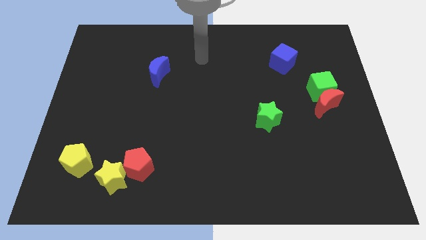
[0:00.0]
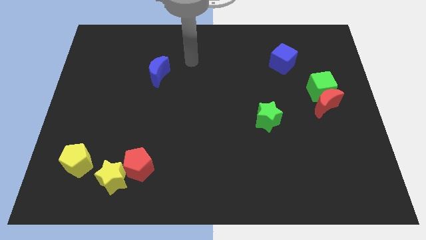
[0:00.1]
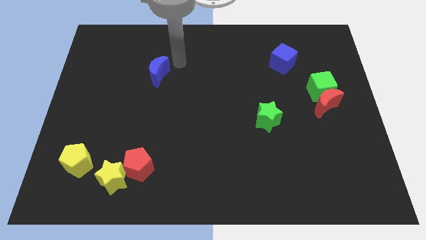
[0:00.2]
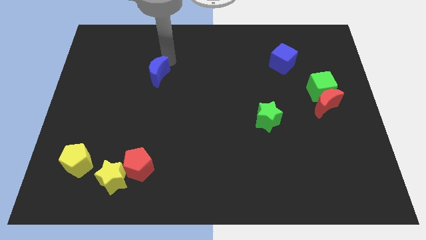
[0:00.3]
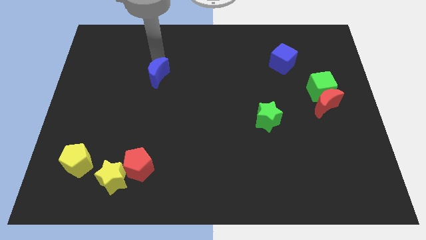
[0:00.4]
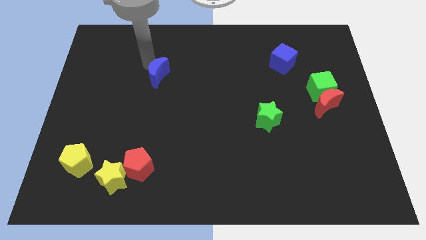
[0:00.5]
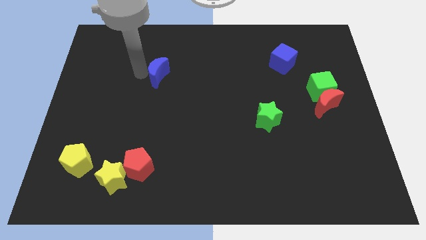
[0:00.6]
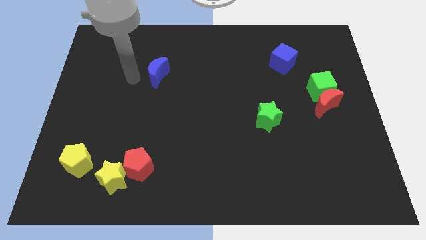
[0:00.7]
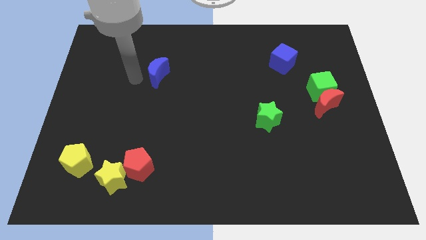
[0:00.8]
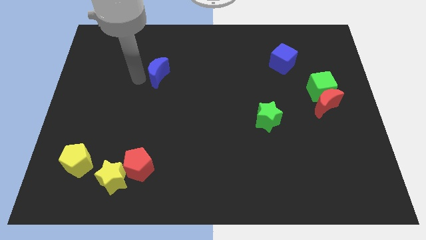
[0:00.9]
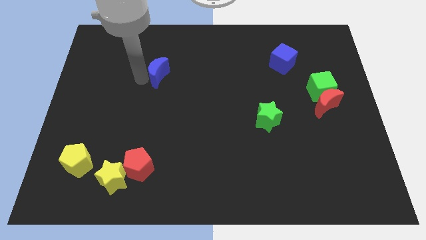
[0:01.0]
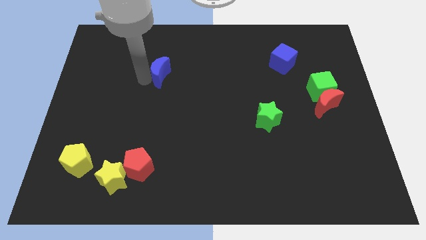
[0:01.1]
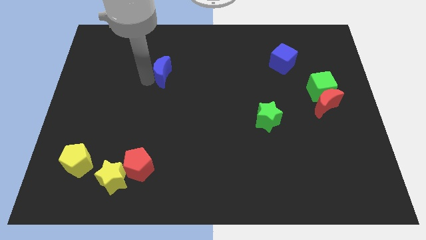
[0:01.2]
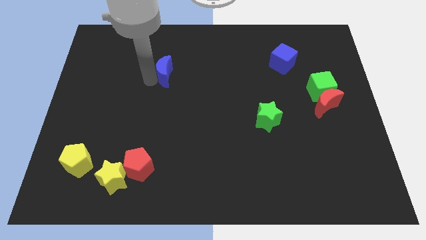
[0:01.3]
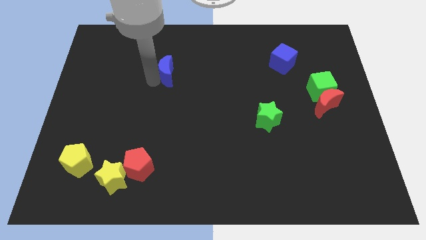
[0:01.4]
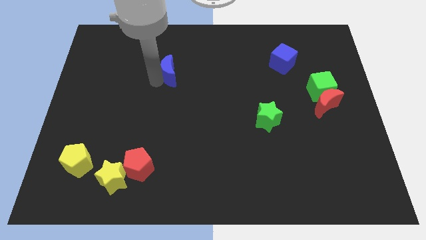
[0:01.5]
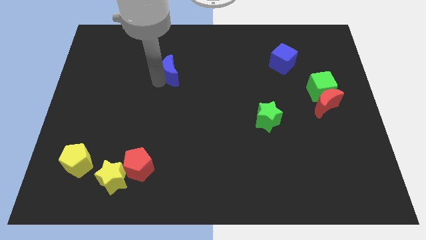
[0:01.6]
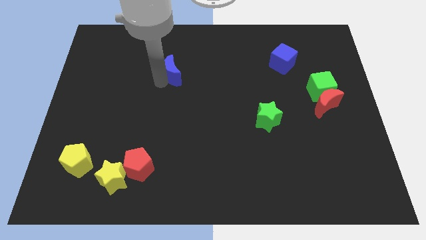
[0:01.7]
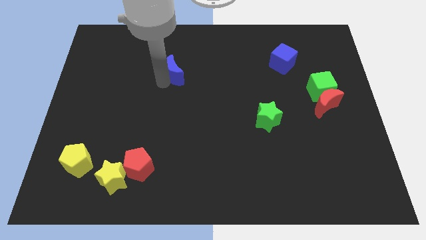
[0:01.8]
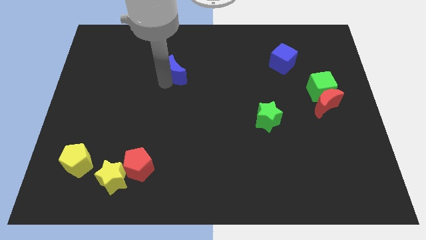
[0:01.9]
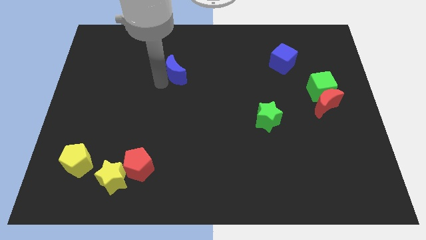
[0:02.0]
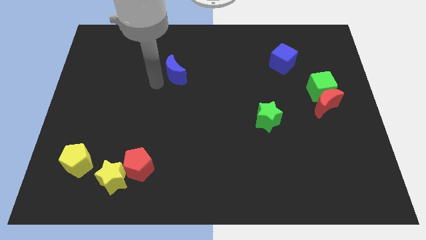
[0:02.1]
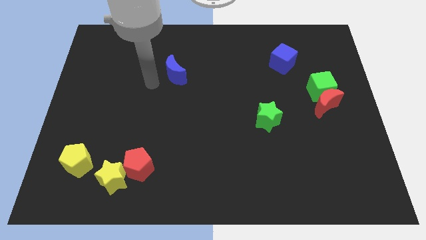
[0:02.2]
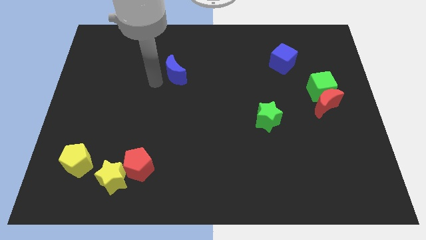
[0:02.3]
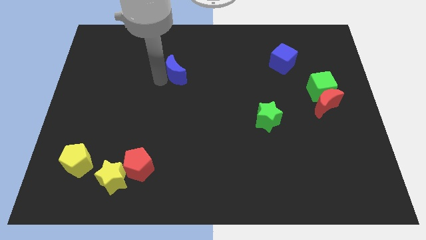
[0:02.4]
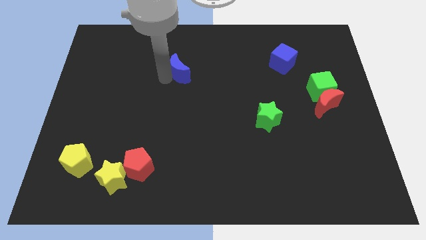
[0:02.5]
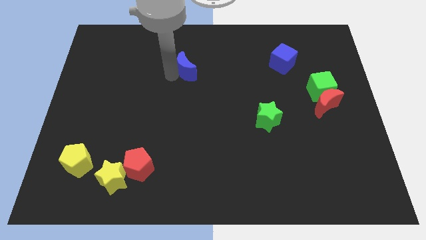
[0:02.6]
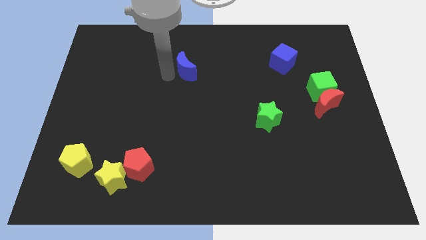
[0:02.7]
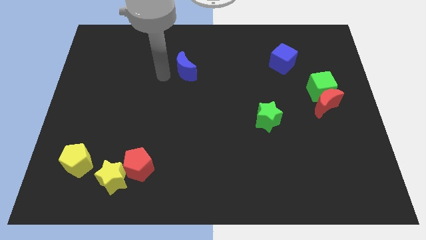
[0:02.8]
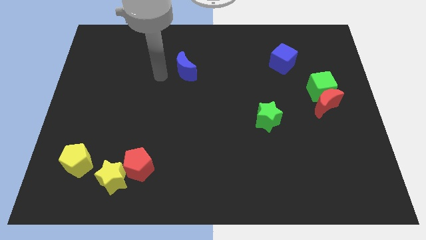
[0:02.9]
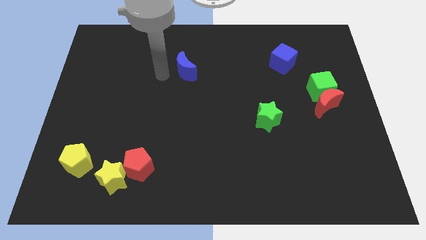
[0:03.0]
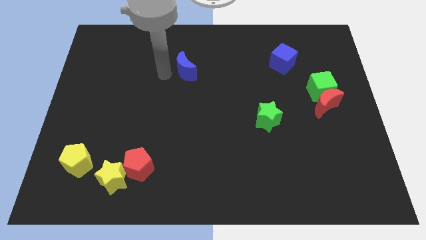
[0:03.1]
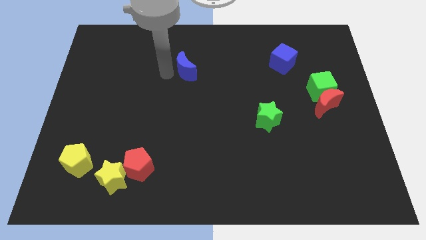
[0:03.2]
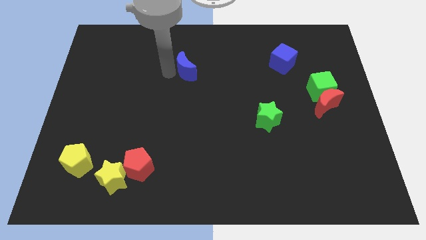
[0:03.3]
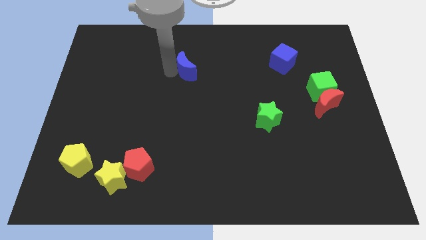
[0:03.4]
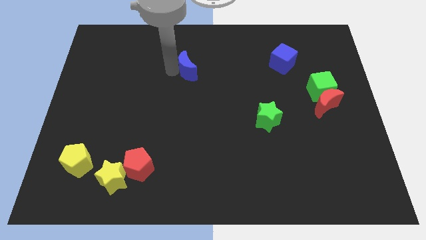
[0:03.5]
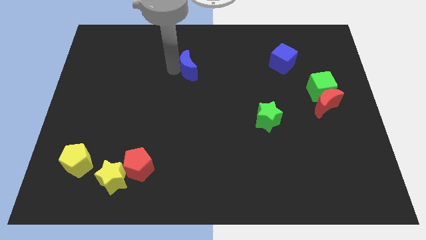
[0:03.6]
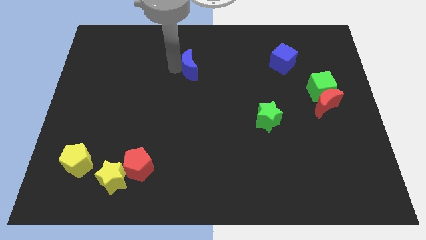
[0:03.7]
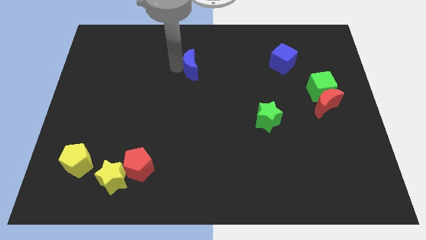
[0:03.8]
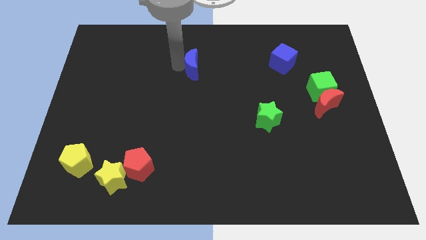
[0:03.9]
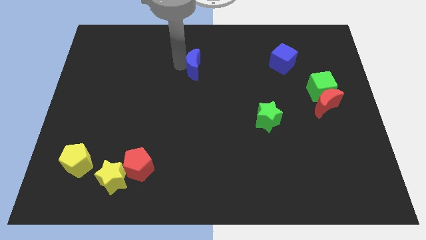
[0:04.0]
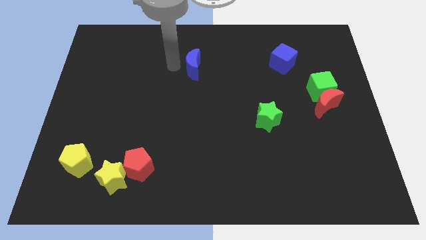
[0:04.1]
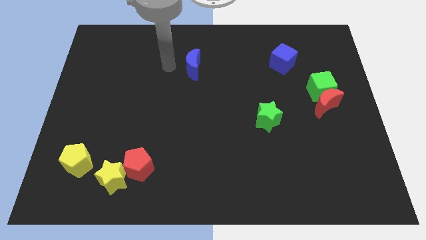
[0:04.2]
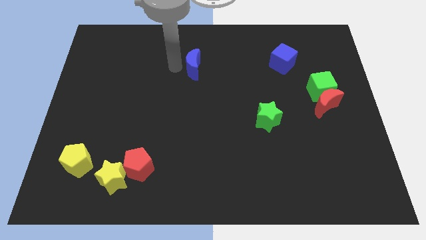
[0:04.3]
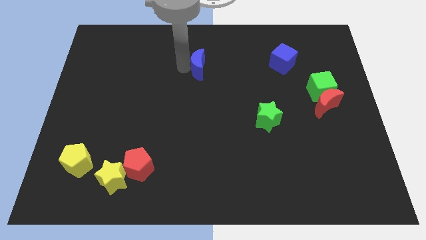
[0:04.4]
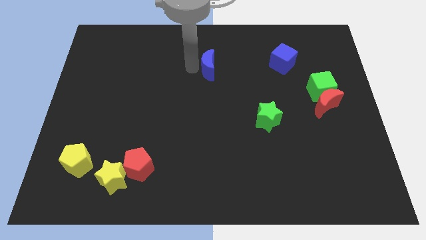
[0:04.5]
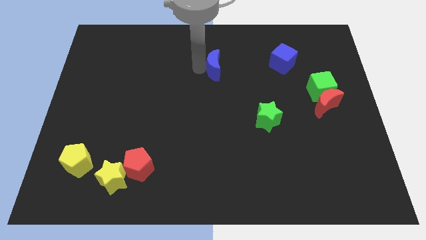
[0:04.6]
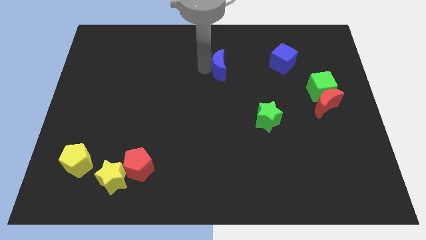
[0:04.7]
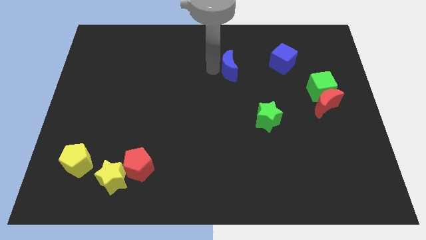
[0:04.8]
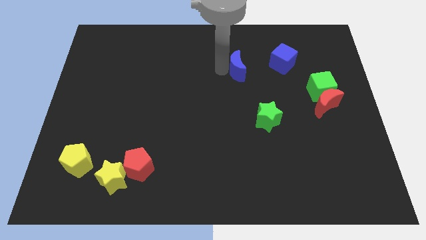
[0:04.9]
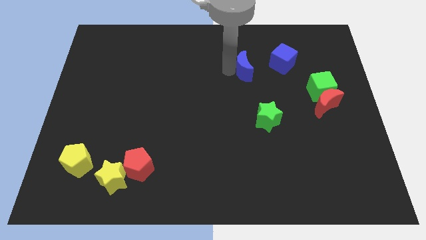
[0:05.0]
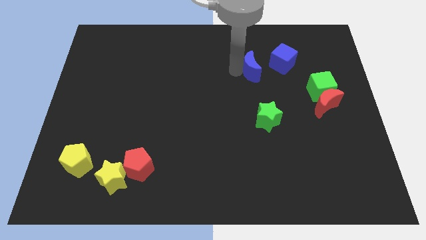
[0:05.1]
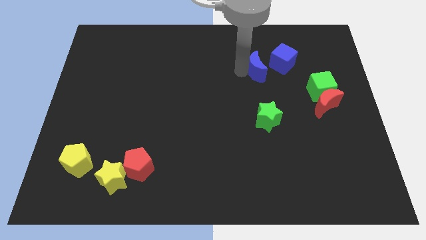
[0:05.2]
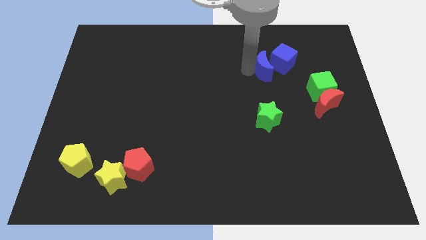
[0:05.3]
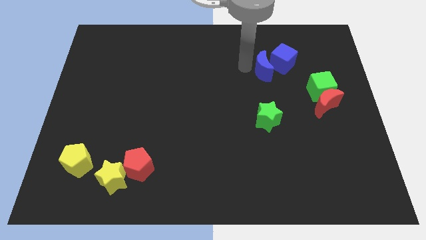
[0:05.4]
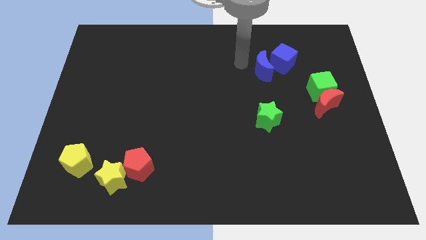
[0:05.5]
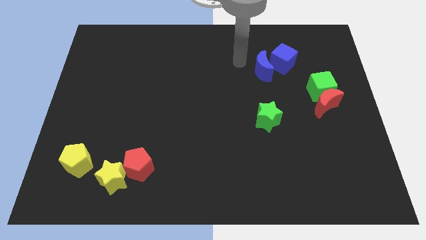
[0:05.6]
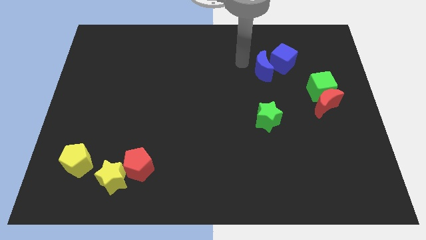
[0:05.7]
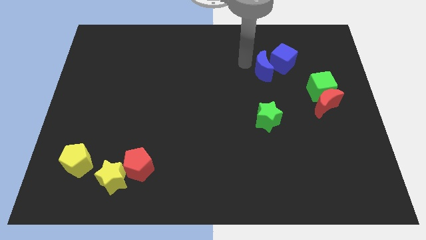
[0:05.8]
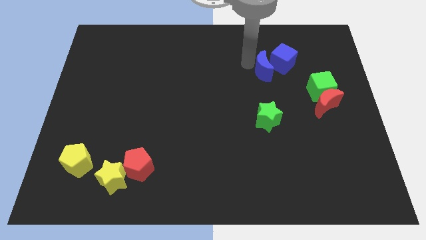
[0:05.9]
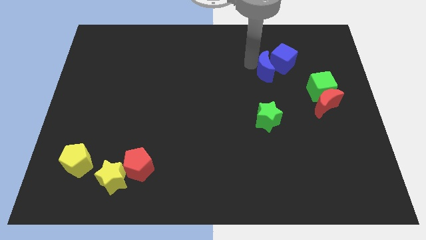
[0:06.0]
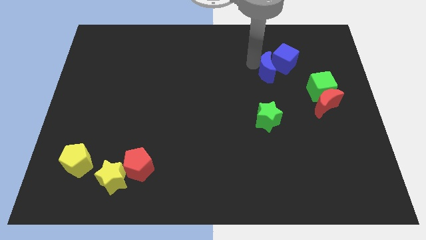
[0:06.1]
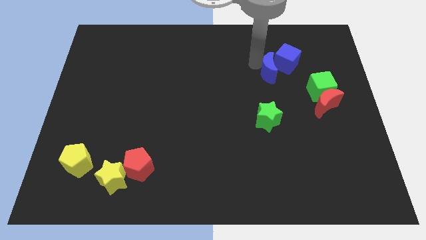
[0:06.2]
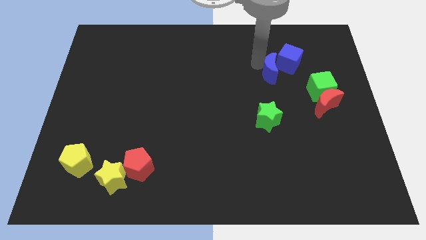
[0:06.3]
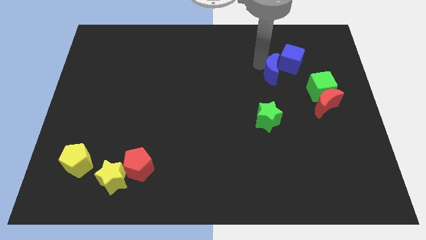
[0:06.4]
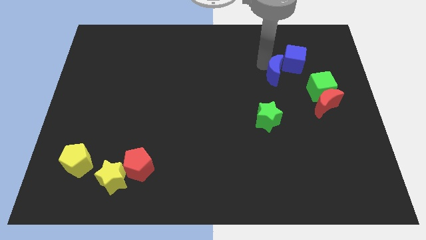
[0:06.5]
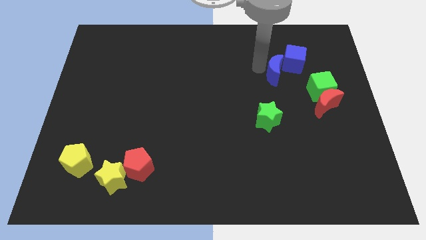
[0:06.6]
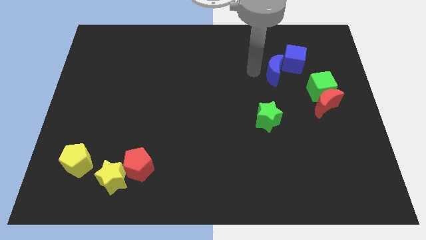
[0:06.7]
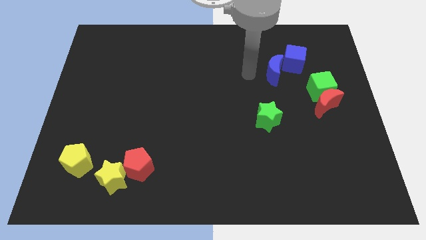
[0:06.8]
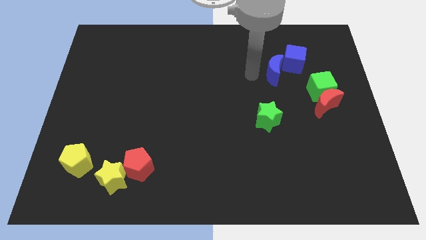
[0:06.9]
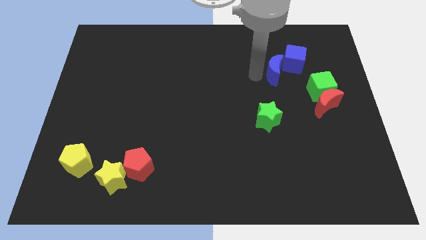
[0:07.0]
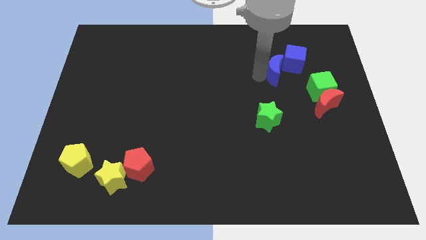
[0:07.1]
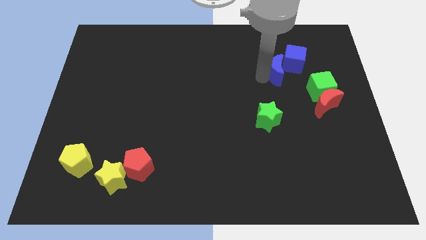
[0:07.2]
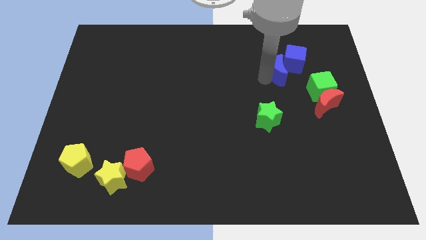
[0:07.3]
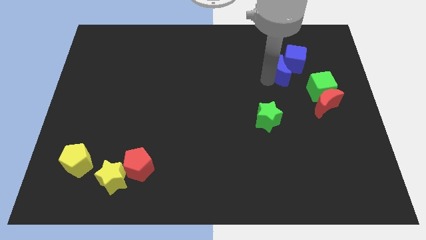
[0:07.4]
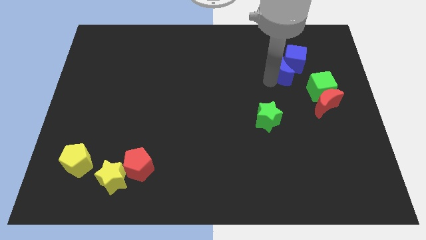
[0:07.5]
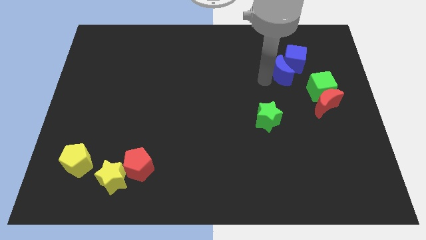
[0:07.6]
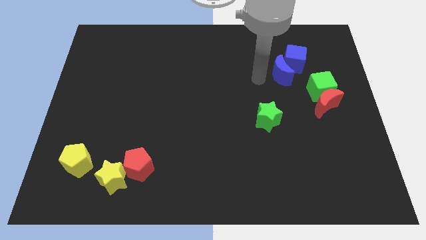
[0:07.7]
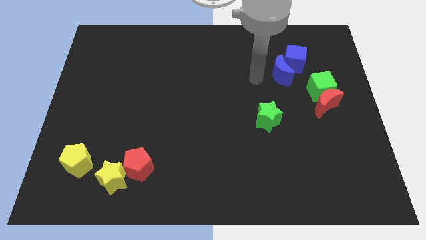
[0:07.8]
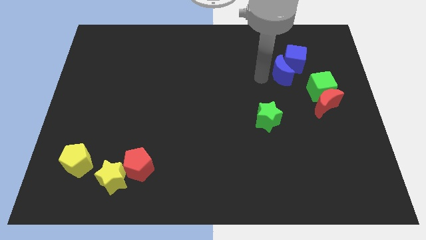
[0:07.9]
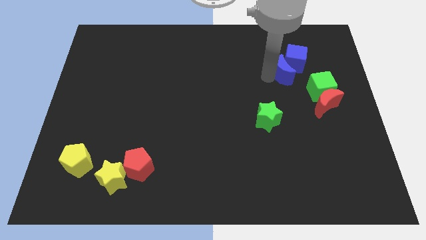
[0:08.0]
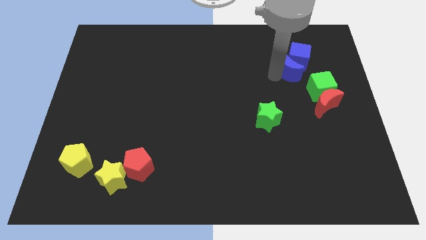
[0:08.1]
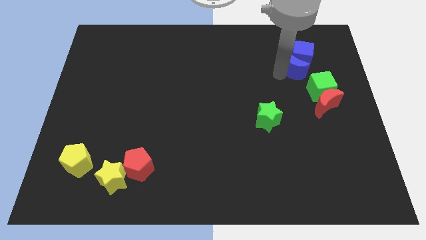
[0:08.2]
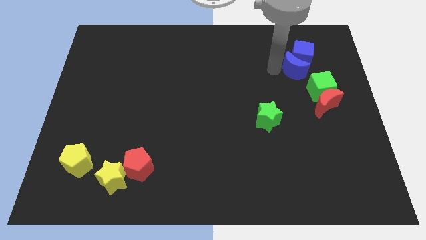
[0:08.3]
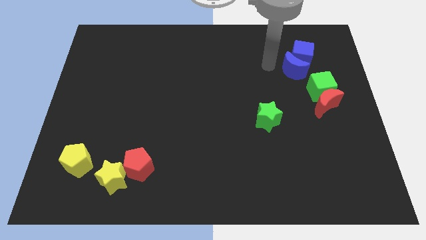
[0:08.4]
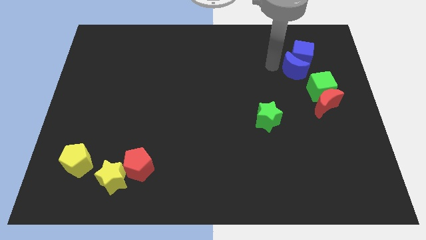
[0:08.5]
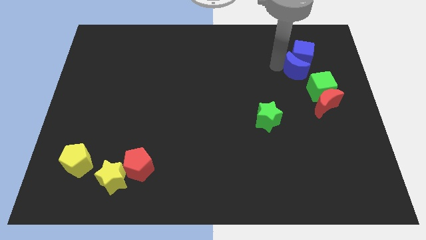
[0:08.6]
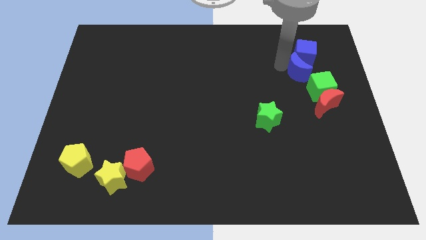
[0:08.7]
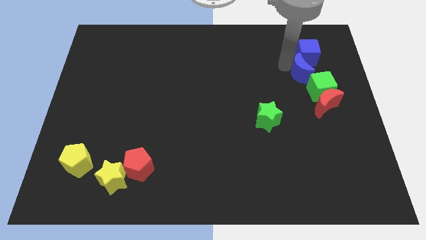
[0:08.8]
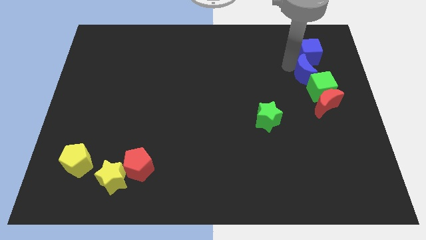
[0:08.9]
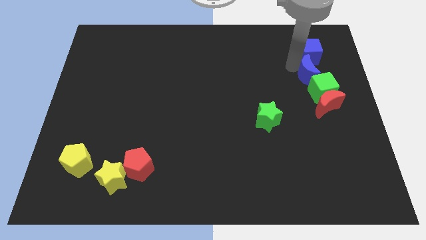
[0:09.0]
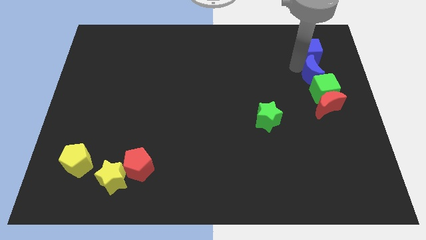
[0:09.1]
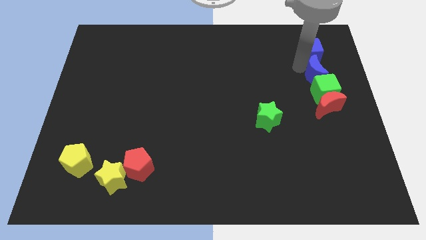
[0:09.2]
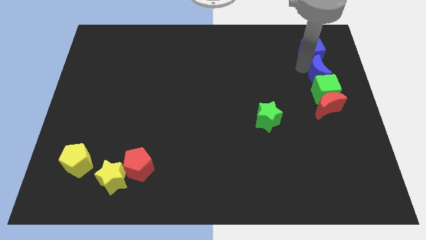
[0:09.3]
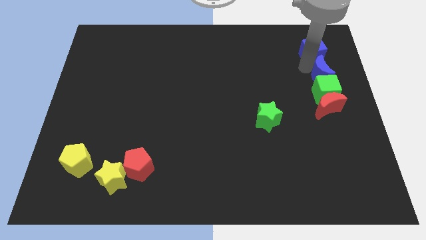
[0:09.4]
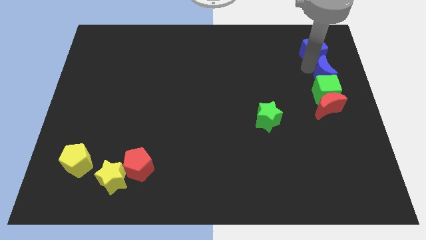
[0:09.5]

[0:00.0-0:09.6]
put the blue moon to the center right
